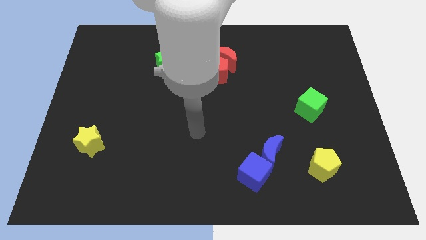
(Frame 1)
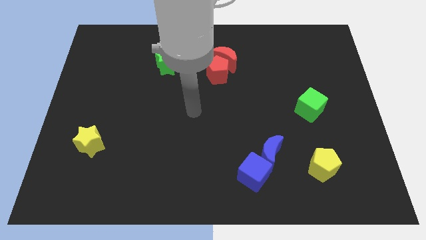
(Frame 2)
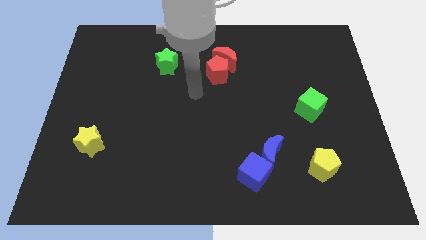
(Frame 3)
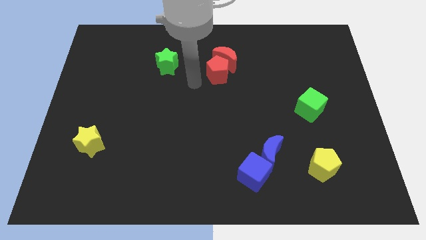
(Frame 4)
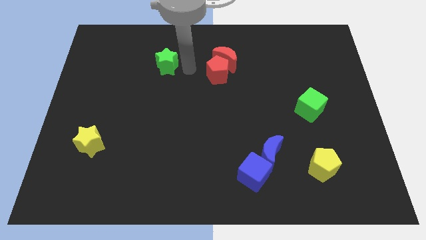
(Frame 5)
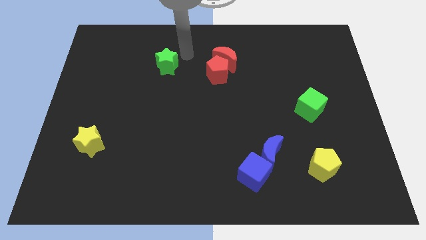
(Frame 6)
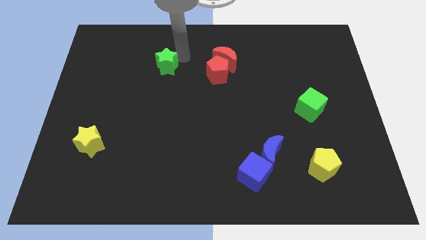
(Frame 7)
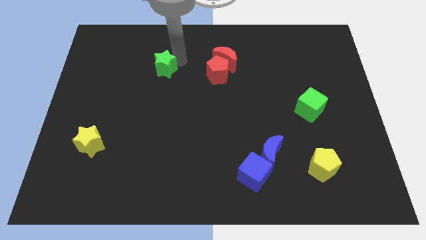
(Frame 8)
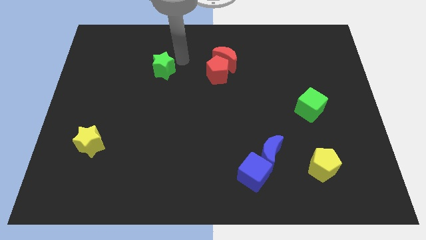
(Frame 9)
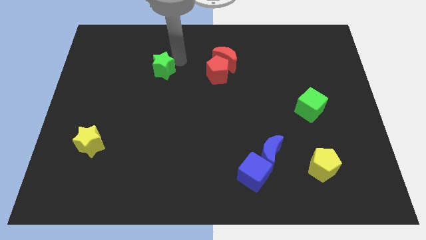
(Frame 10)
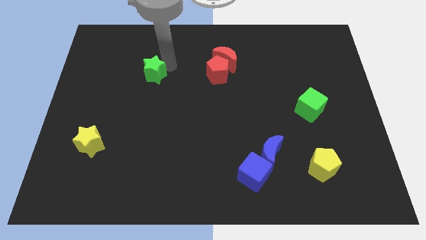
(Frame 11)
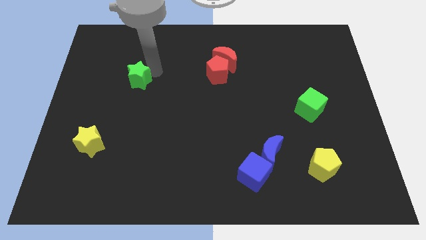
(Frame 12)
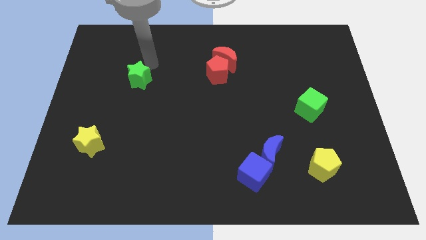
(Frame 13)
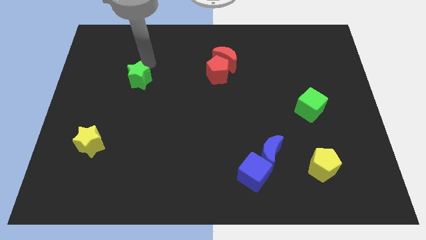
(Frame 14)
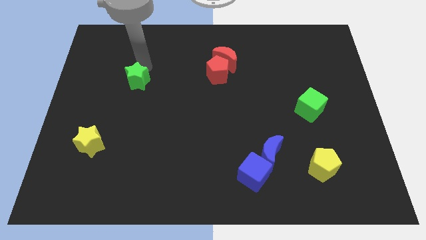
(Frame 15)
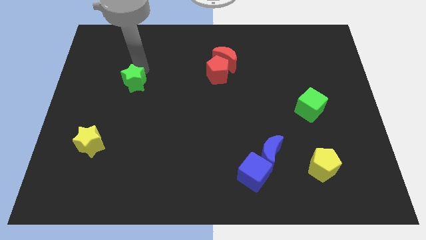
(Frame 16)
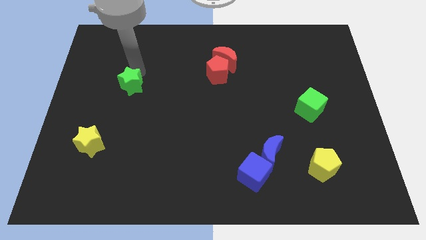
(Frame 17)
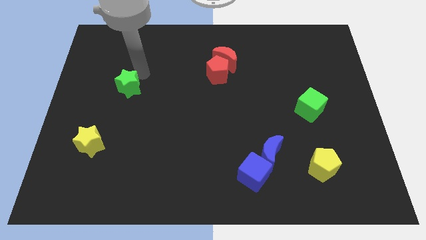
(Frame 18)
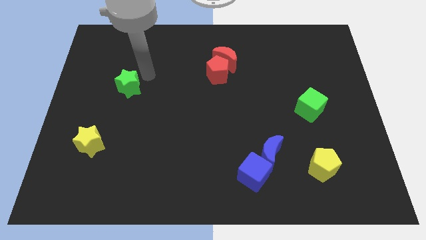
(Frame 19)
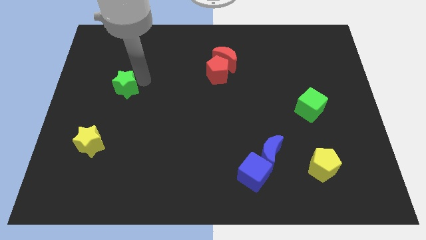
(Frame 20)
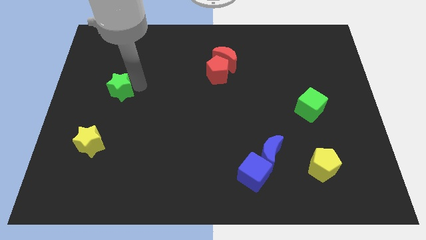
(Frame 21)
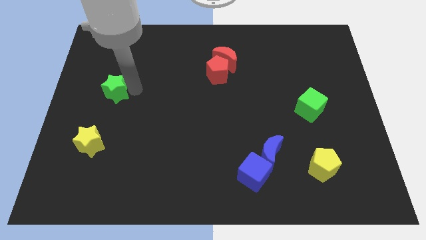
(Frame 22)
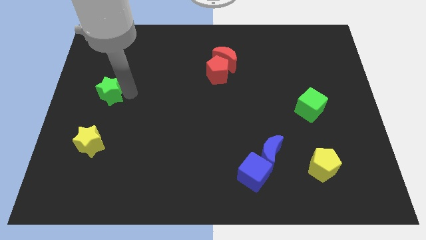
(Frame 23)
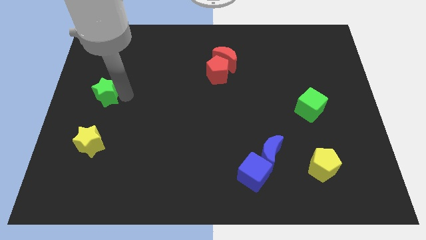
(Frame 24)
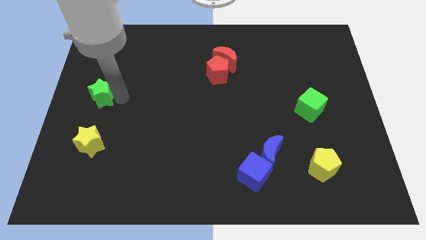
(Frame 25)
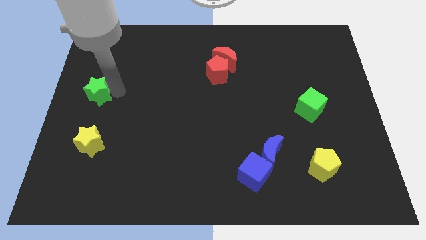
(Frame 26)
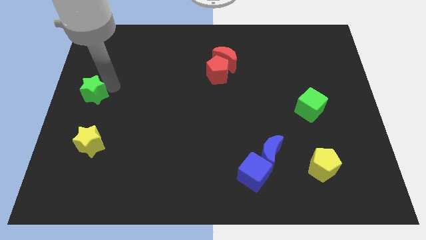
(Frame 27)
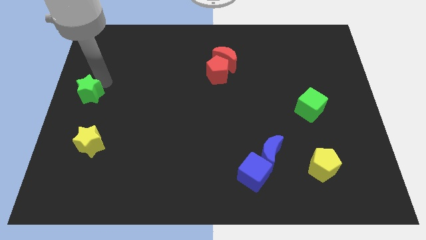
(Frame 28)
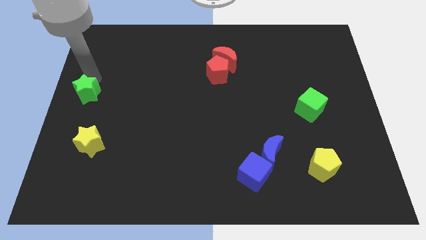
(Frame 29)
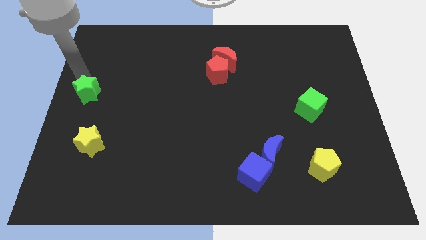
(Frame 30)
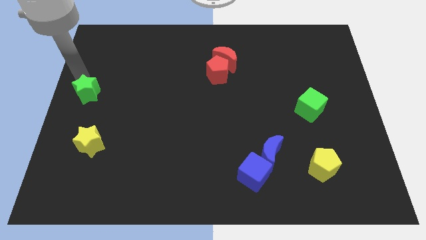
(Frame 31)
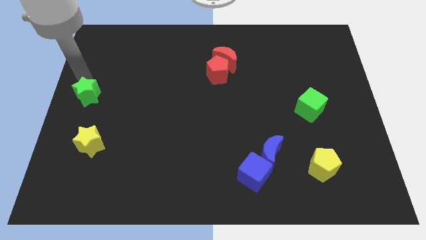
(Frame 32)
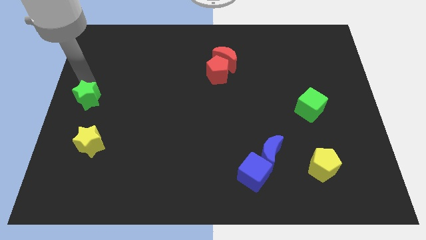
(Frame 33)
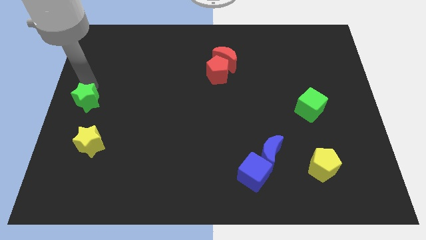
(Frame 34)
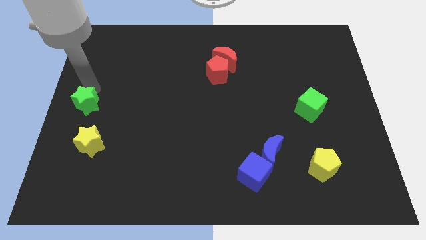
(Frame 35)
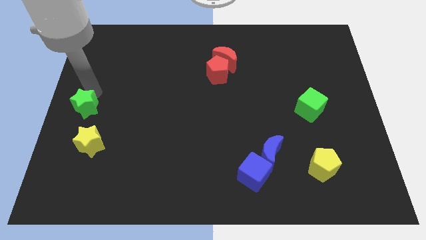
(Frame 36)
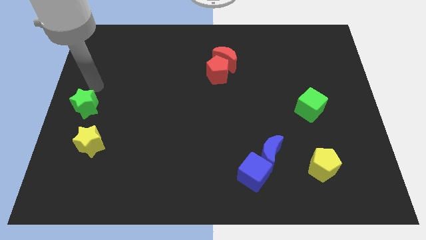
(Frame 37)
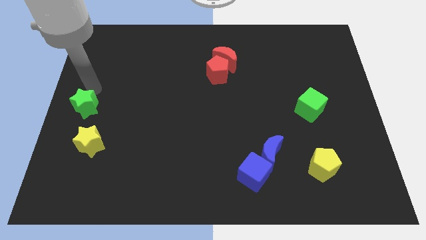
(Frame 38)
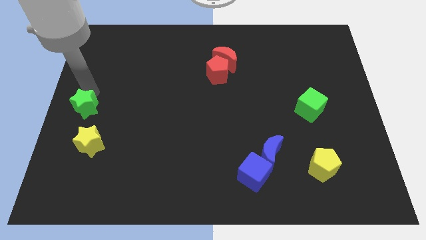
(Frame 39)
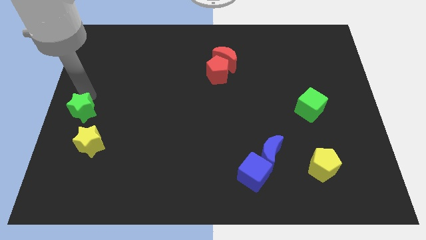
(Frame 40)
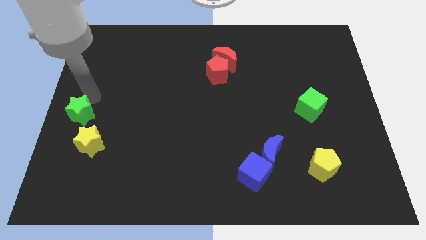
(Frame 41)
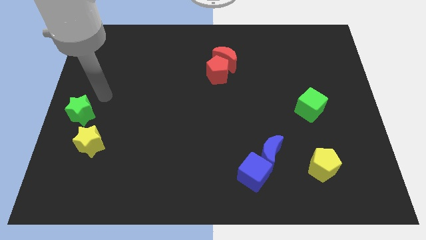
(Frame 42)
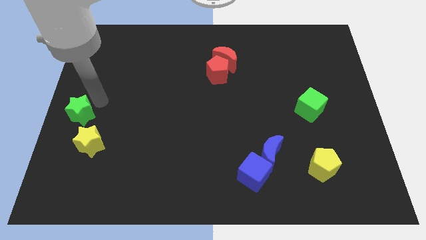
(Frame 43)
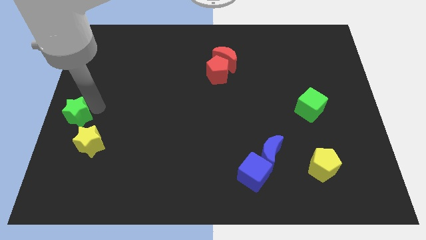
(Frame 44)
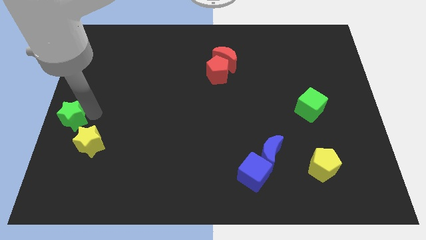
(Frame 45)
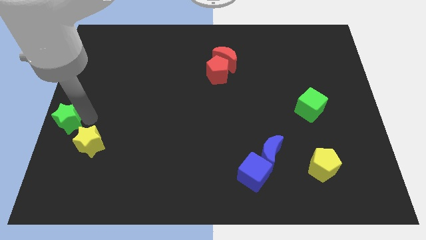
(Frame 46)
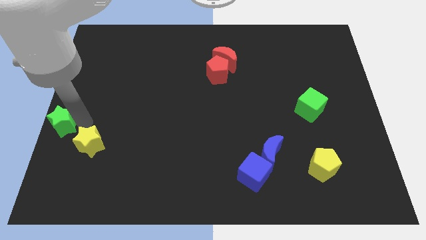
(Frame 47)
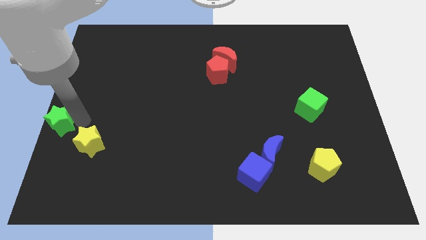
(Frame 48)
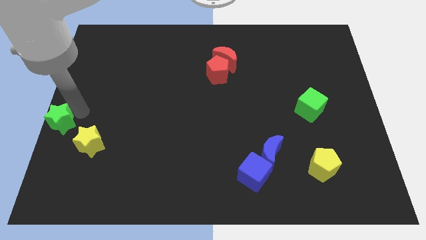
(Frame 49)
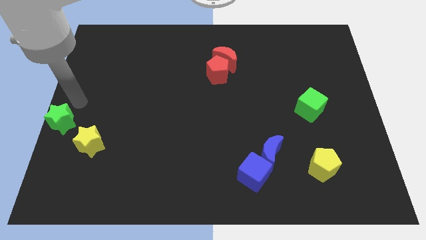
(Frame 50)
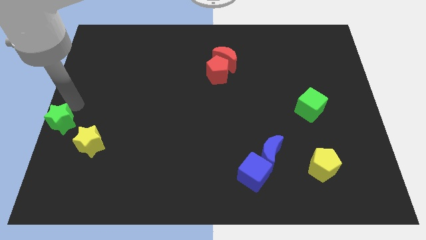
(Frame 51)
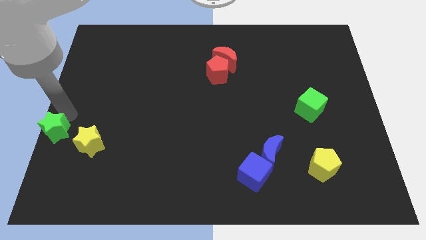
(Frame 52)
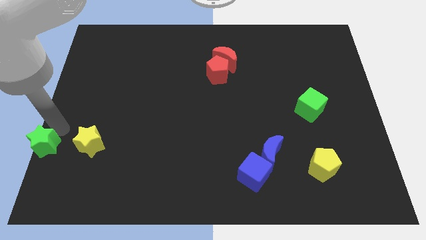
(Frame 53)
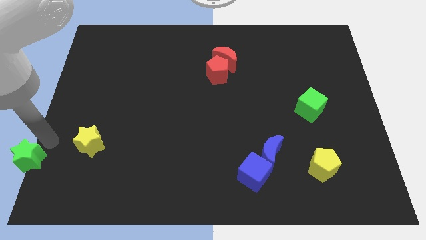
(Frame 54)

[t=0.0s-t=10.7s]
slide the green star to the lower left corner

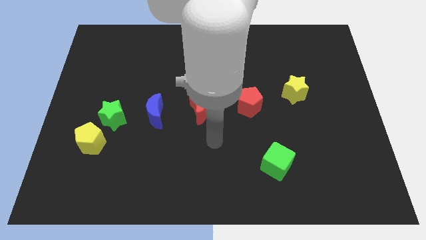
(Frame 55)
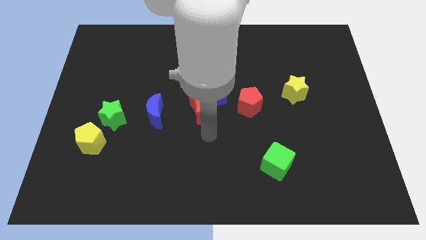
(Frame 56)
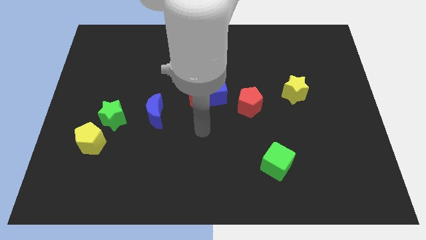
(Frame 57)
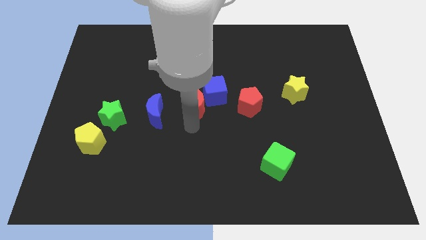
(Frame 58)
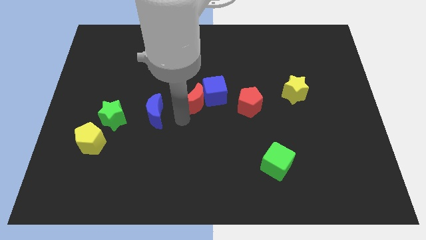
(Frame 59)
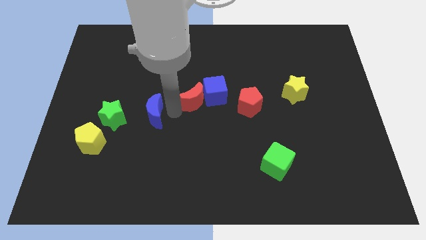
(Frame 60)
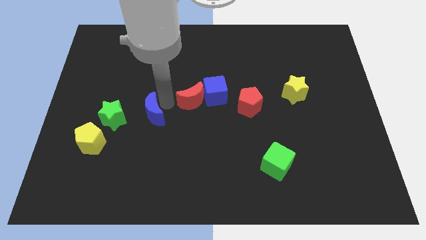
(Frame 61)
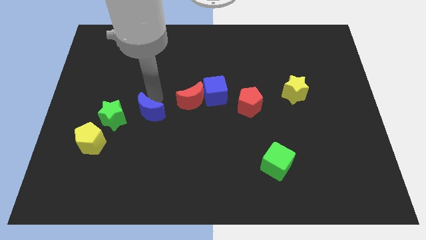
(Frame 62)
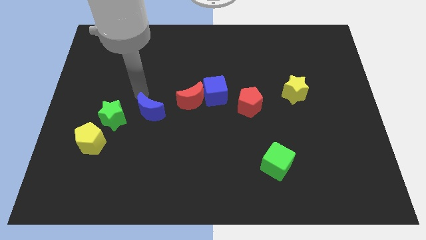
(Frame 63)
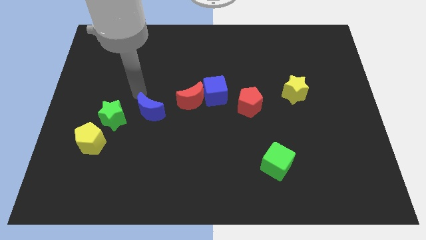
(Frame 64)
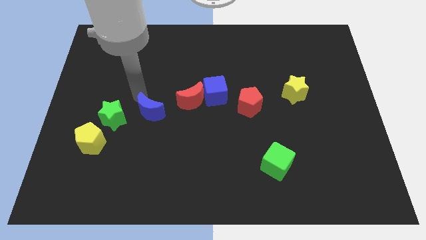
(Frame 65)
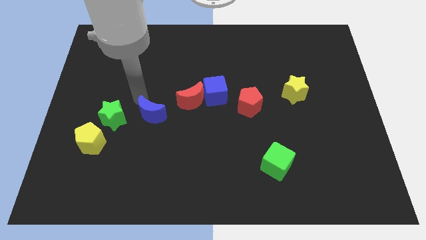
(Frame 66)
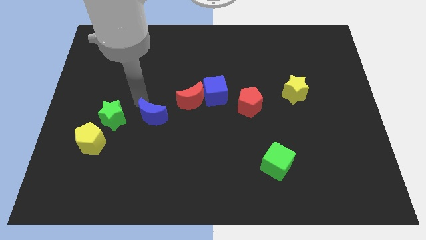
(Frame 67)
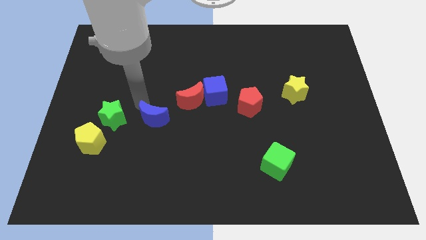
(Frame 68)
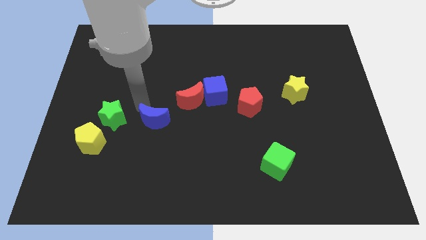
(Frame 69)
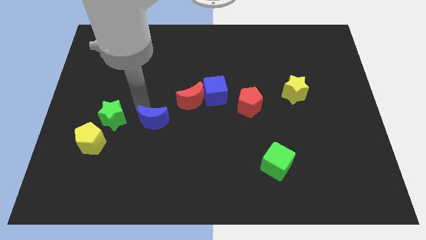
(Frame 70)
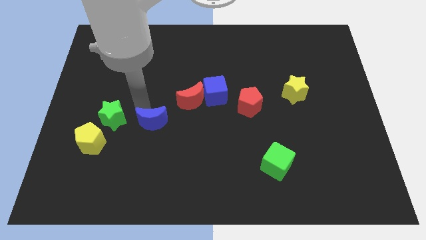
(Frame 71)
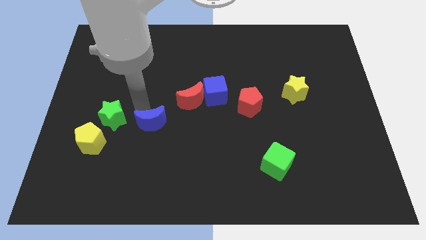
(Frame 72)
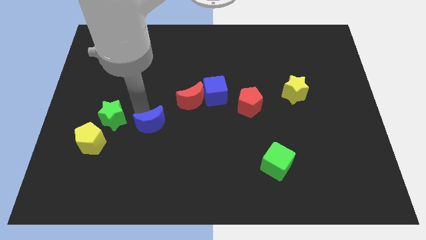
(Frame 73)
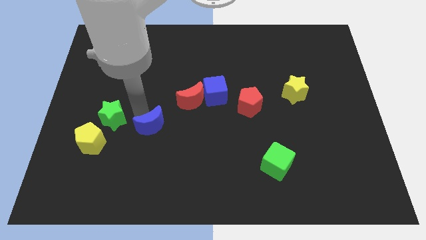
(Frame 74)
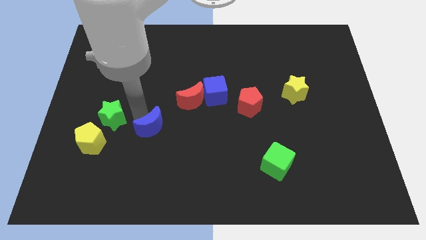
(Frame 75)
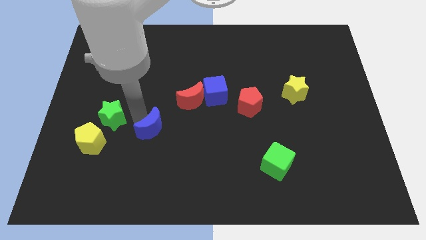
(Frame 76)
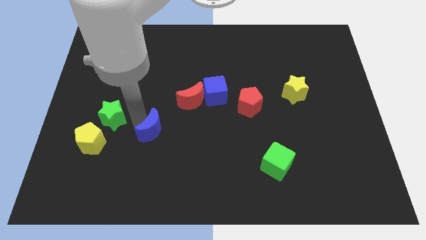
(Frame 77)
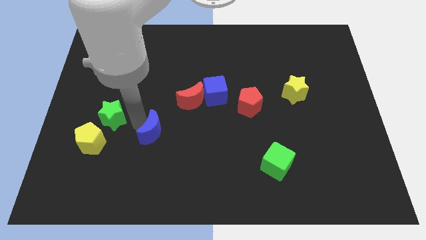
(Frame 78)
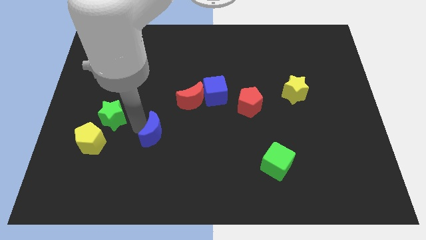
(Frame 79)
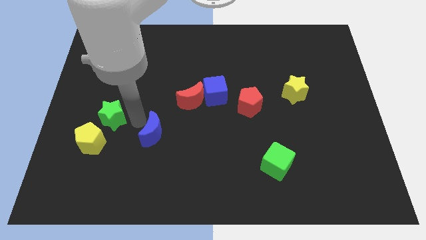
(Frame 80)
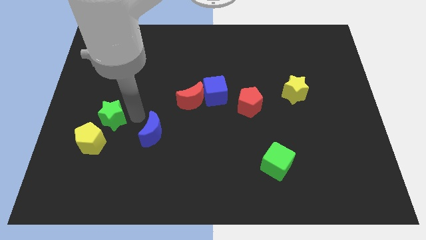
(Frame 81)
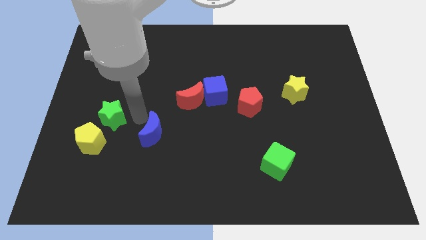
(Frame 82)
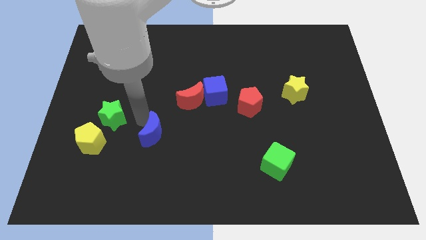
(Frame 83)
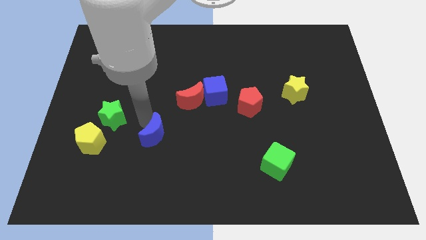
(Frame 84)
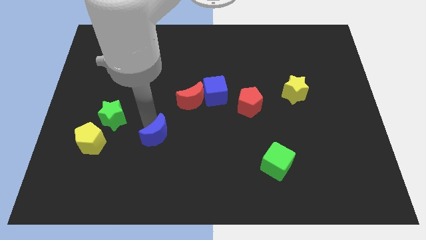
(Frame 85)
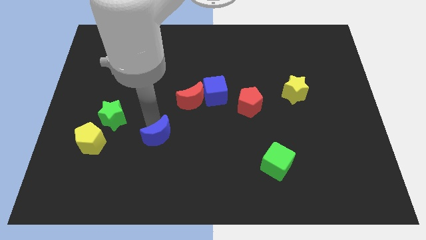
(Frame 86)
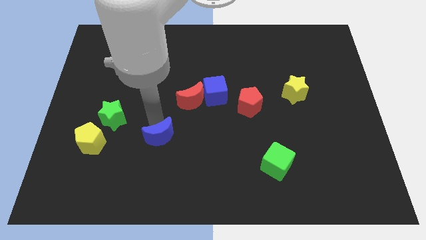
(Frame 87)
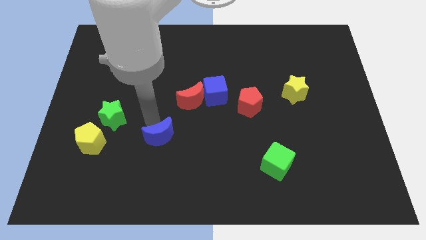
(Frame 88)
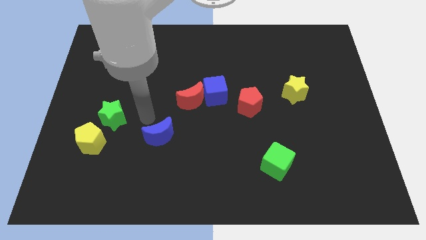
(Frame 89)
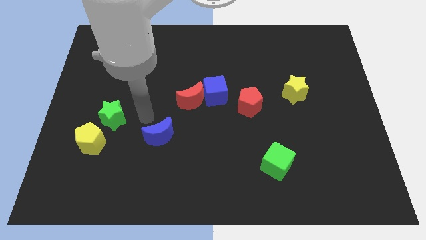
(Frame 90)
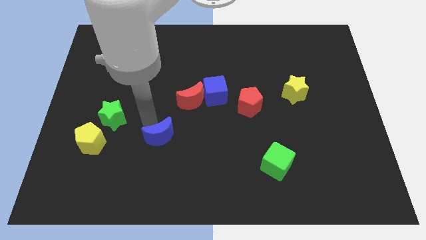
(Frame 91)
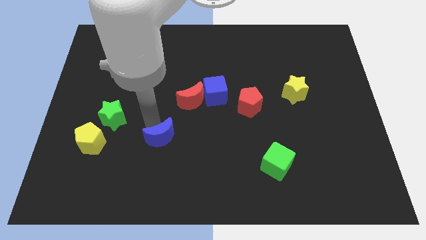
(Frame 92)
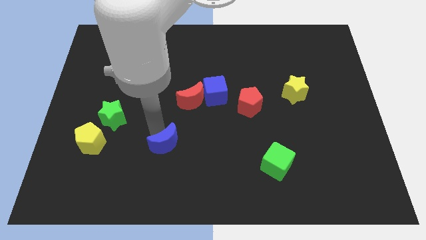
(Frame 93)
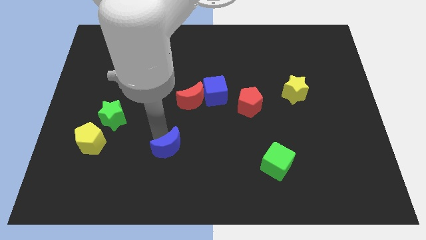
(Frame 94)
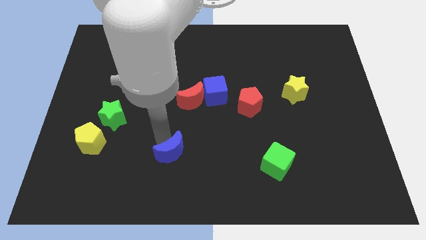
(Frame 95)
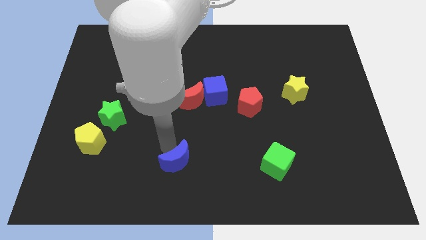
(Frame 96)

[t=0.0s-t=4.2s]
move the blue moon to the bottom side
